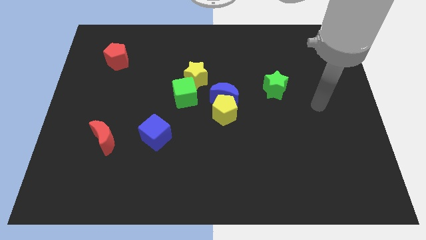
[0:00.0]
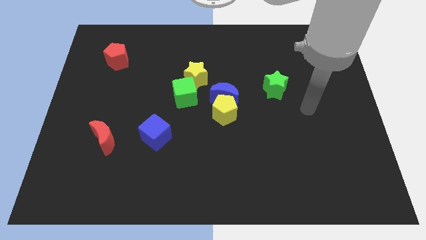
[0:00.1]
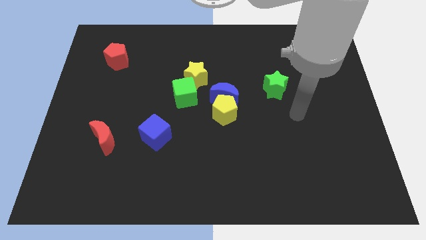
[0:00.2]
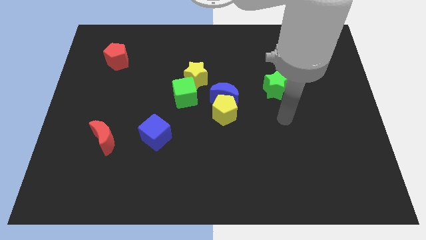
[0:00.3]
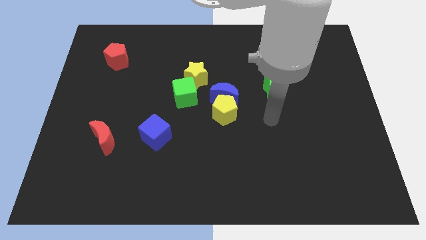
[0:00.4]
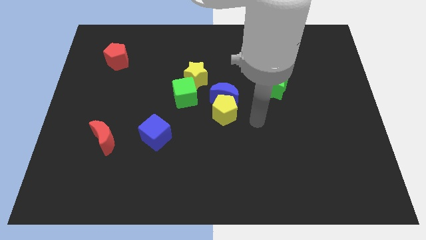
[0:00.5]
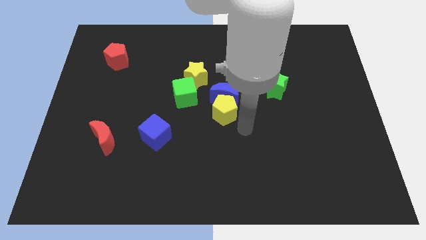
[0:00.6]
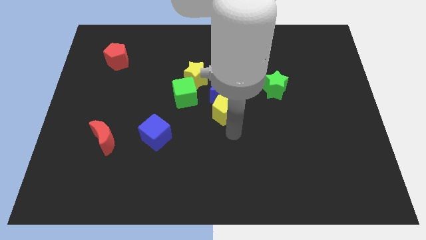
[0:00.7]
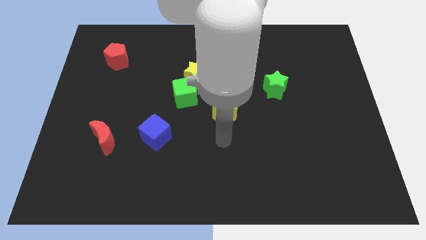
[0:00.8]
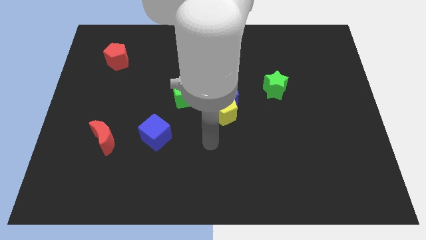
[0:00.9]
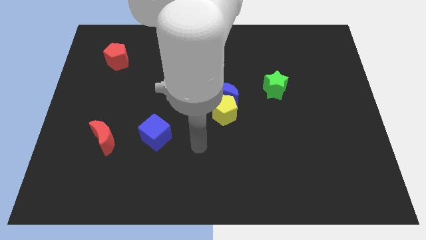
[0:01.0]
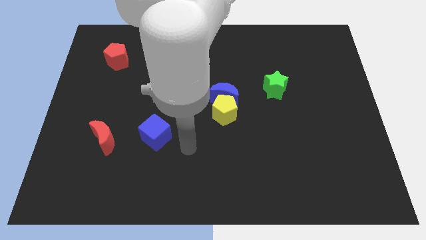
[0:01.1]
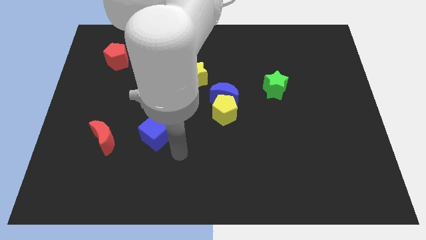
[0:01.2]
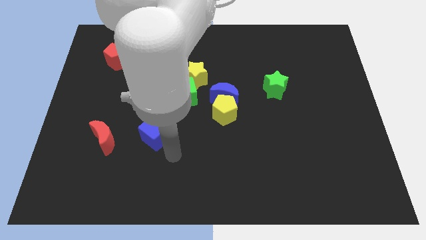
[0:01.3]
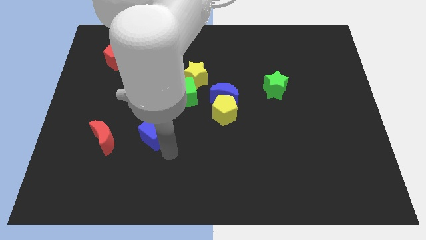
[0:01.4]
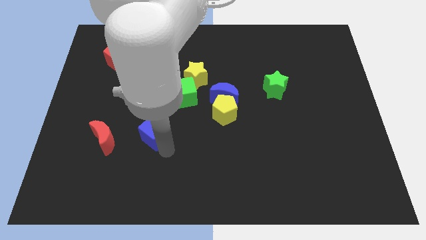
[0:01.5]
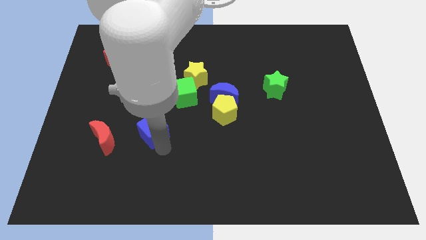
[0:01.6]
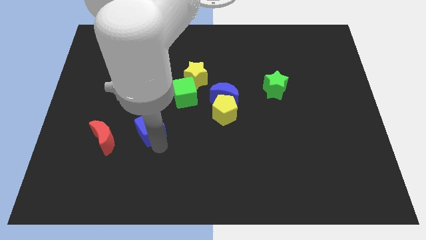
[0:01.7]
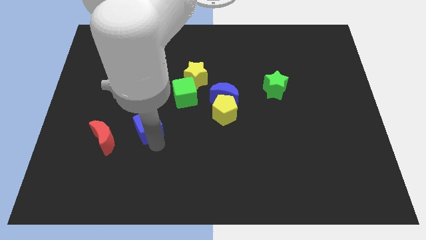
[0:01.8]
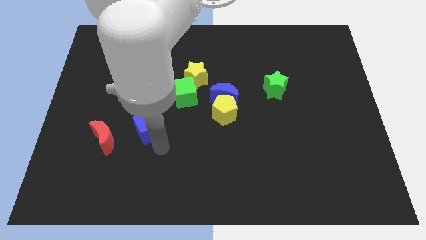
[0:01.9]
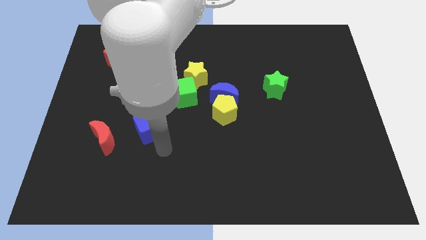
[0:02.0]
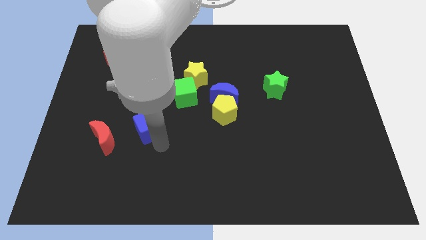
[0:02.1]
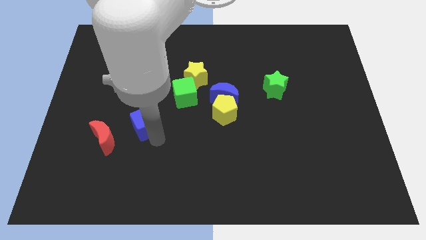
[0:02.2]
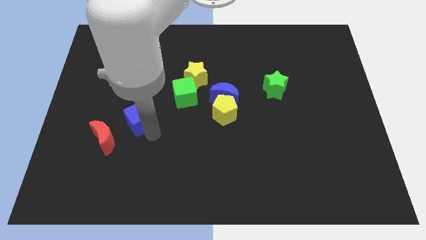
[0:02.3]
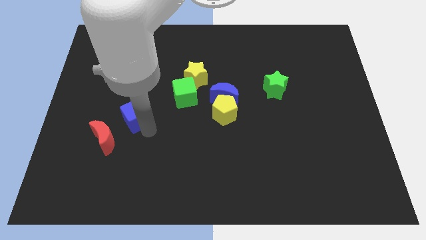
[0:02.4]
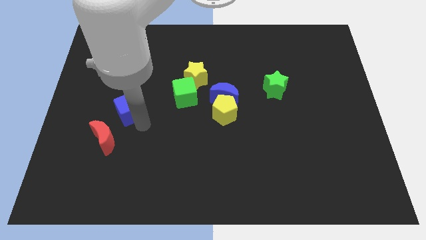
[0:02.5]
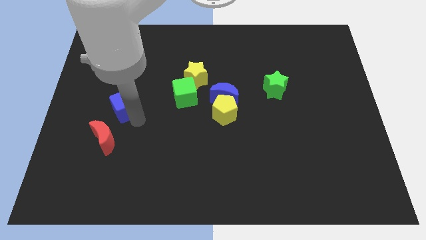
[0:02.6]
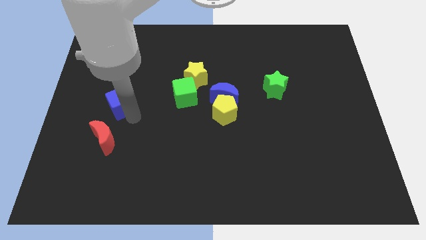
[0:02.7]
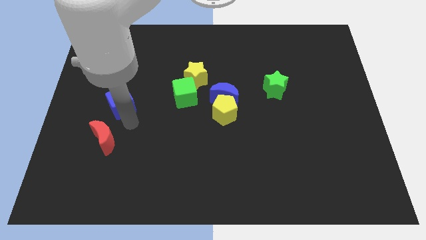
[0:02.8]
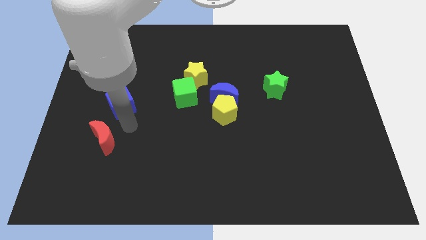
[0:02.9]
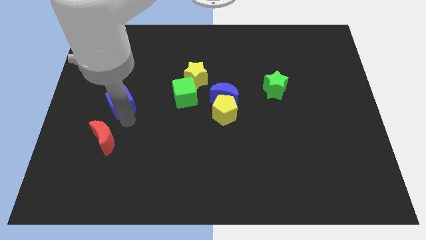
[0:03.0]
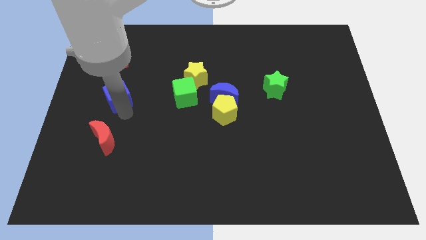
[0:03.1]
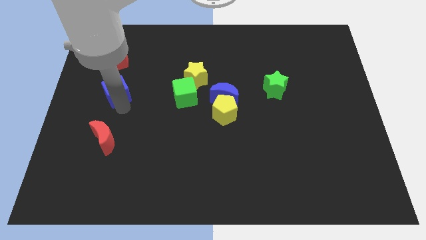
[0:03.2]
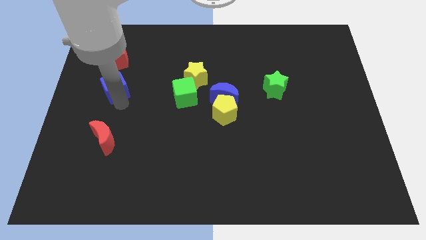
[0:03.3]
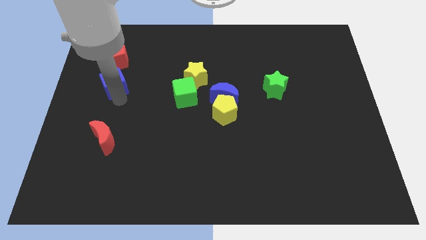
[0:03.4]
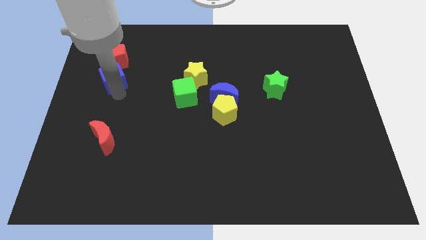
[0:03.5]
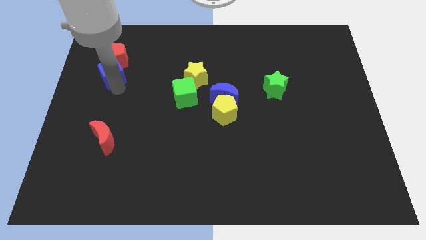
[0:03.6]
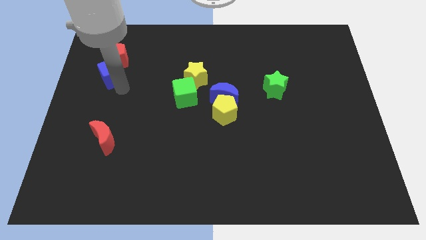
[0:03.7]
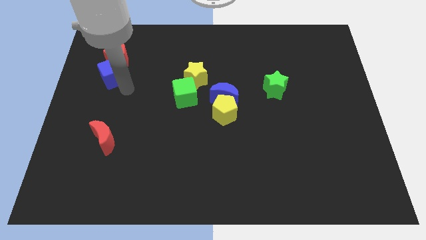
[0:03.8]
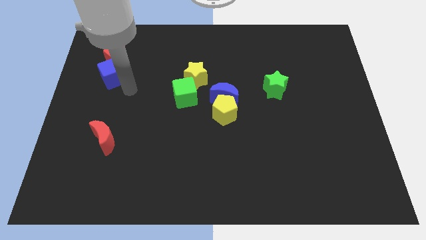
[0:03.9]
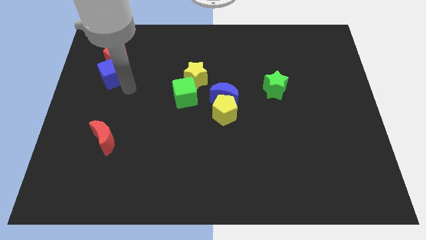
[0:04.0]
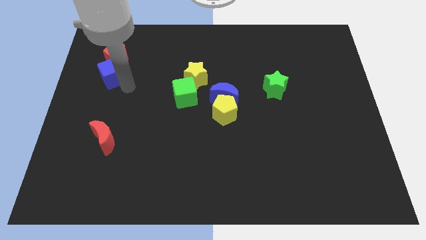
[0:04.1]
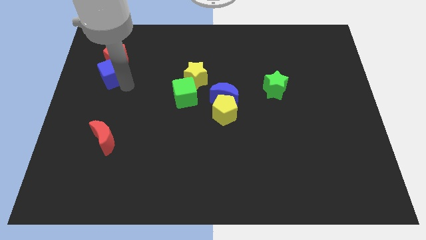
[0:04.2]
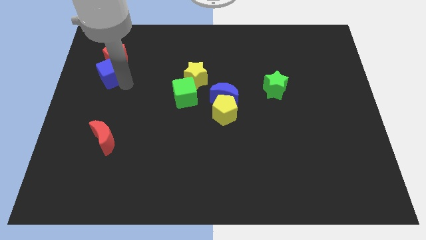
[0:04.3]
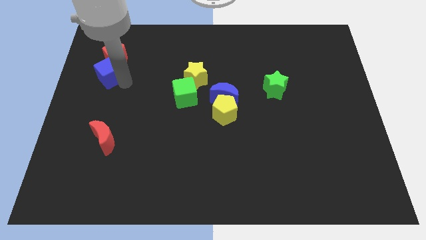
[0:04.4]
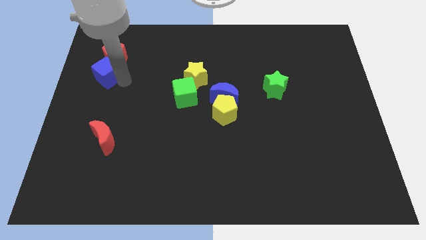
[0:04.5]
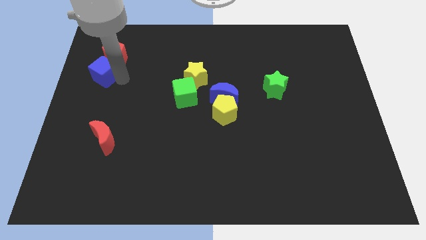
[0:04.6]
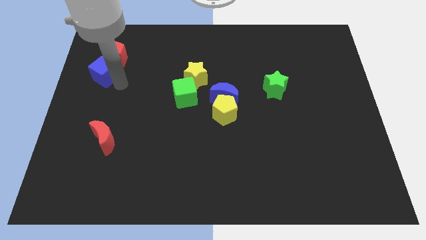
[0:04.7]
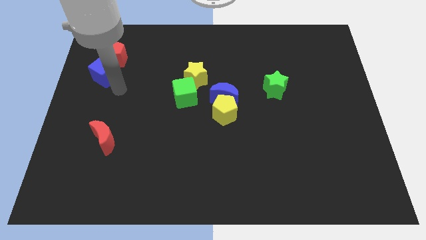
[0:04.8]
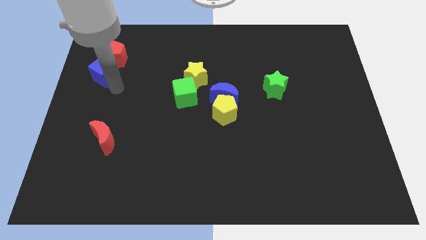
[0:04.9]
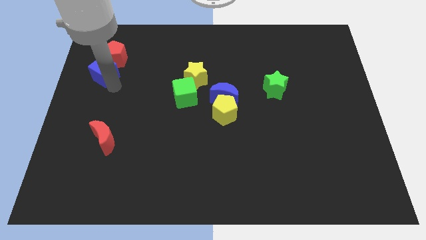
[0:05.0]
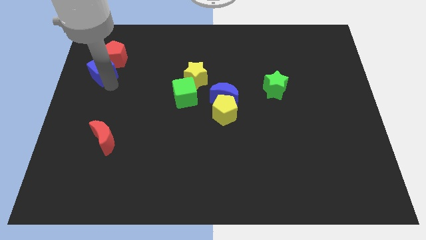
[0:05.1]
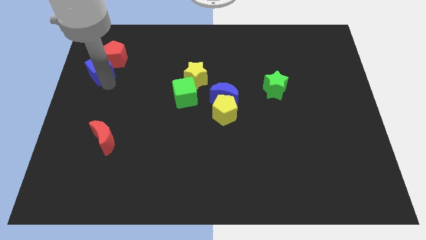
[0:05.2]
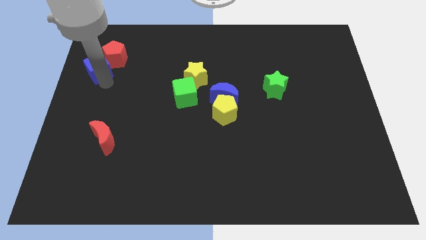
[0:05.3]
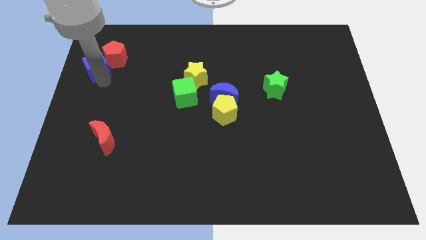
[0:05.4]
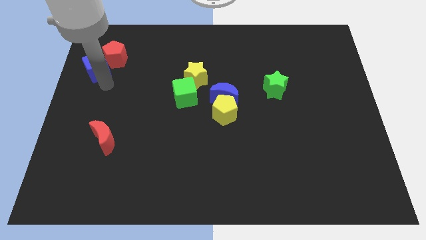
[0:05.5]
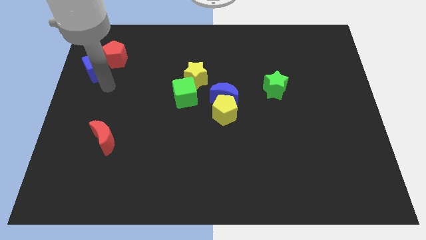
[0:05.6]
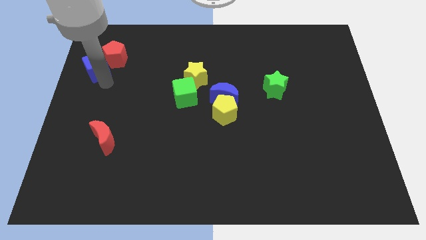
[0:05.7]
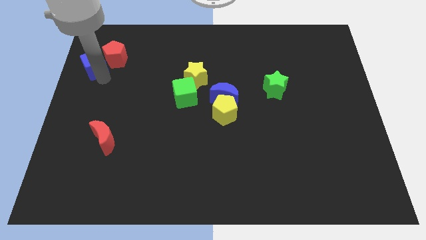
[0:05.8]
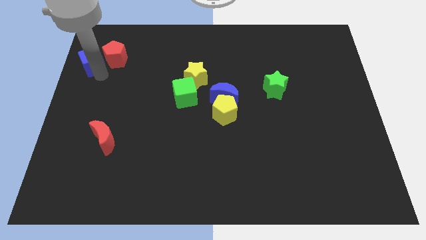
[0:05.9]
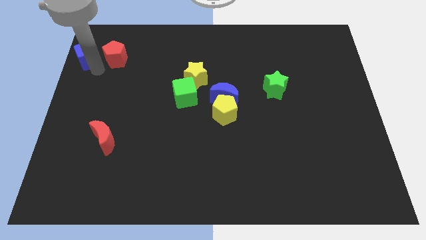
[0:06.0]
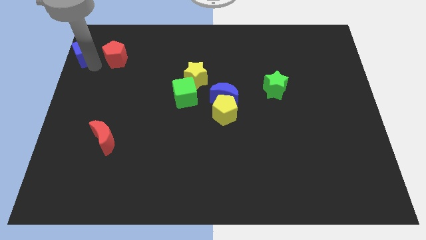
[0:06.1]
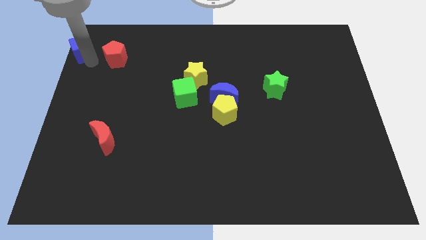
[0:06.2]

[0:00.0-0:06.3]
slide the blue cube to the top left of the board

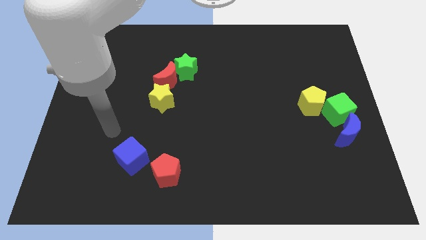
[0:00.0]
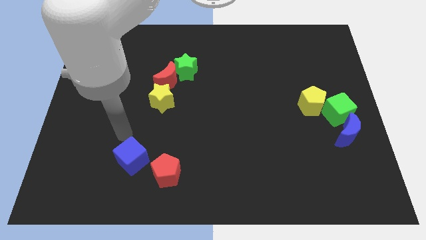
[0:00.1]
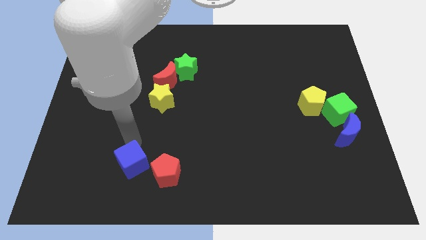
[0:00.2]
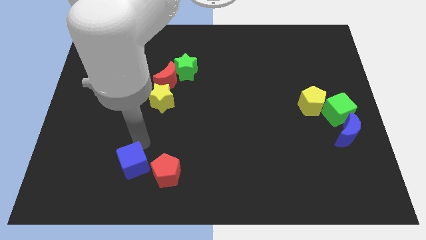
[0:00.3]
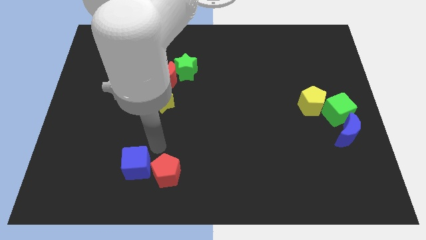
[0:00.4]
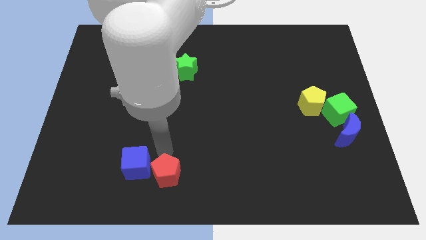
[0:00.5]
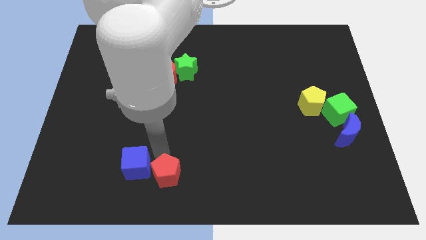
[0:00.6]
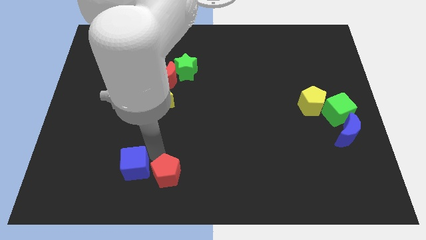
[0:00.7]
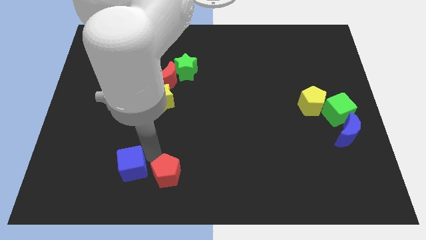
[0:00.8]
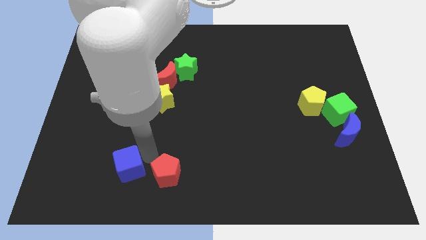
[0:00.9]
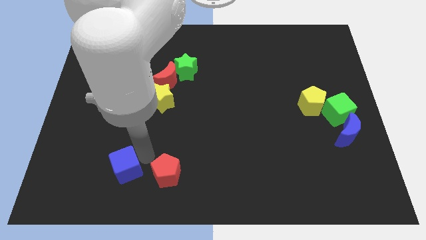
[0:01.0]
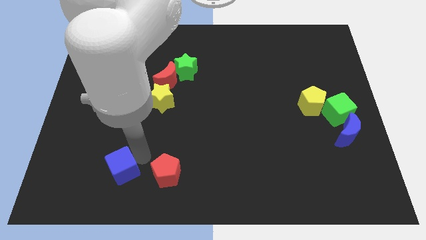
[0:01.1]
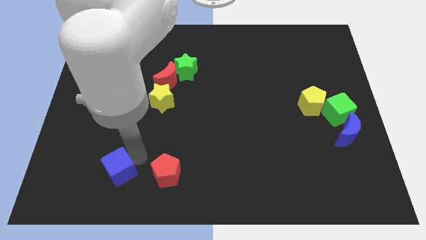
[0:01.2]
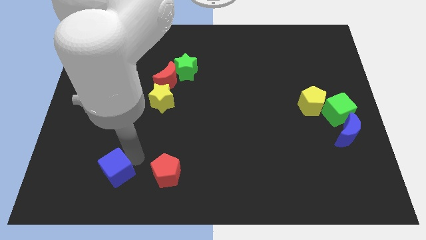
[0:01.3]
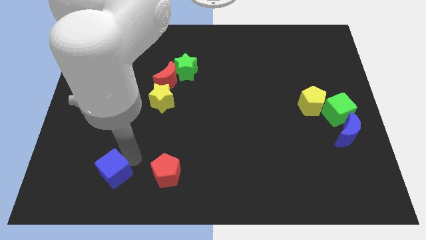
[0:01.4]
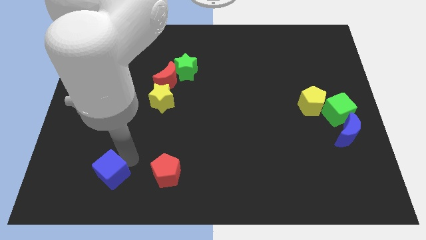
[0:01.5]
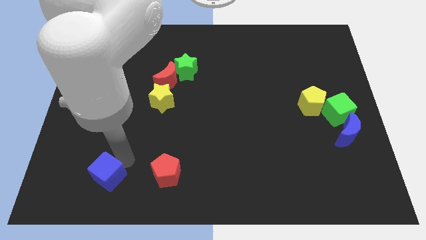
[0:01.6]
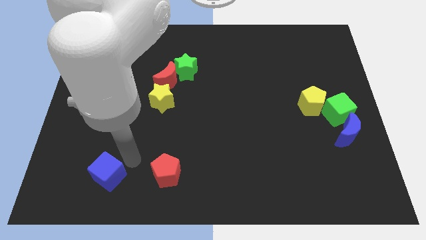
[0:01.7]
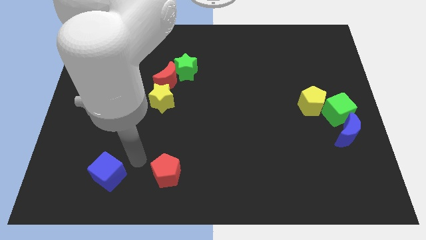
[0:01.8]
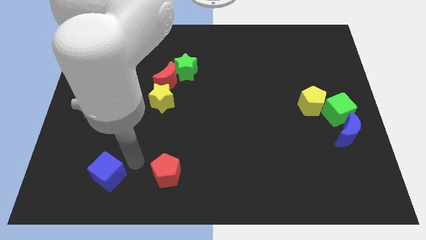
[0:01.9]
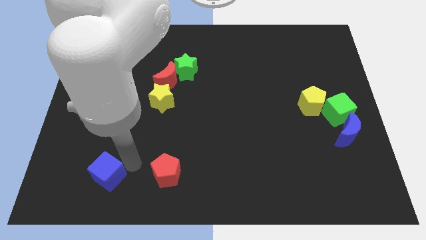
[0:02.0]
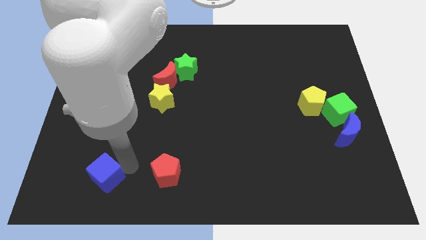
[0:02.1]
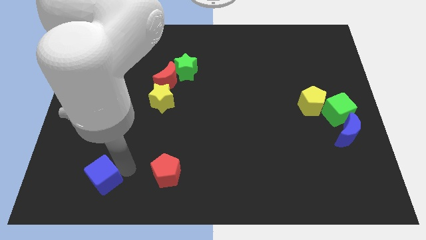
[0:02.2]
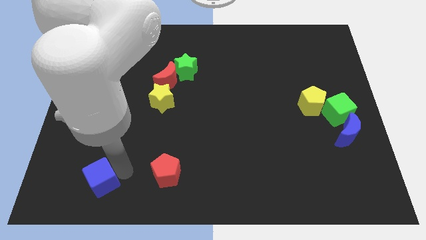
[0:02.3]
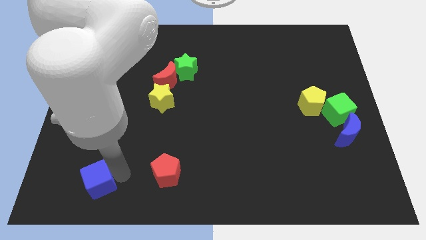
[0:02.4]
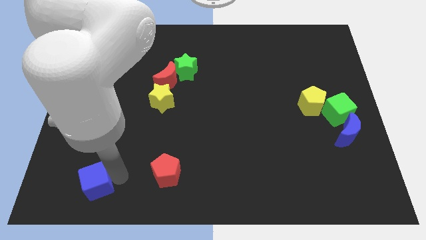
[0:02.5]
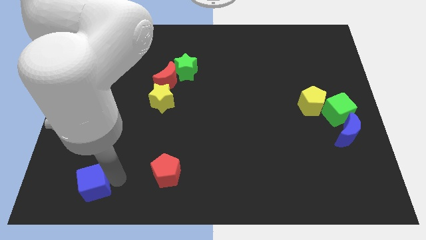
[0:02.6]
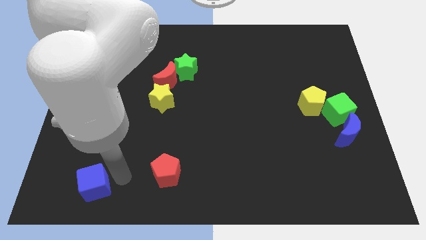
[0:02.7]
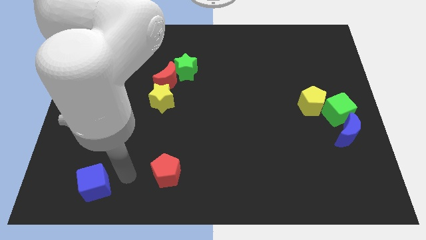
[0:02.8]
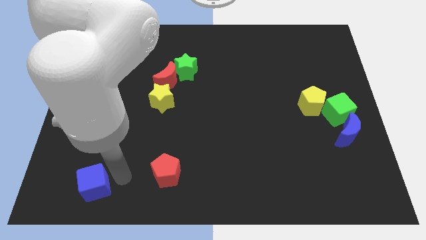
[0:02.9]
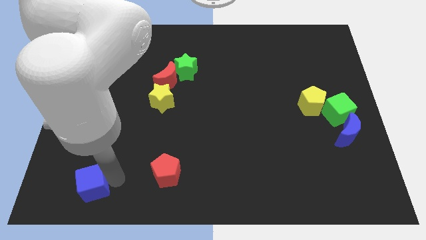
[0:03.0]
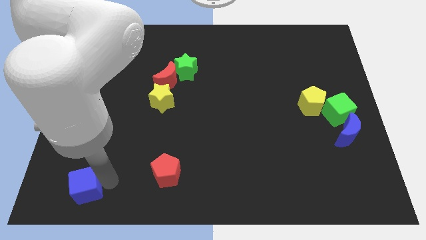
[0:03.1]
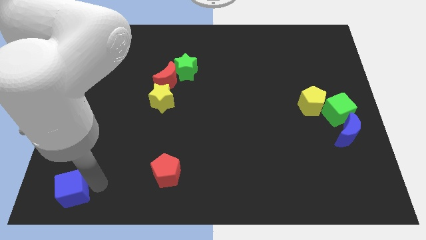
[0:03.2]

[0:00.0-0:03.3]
put the blue cube to the lower left corner
